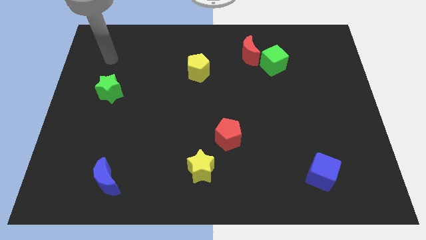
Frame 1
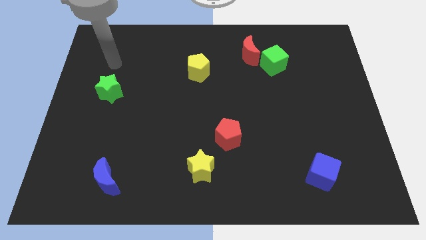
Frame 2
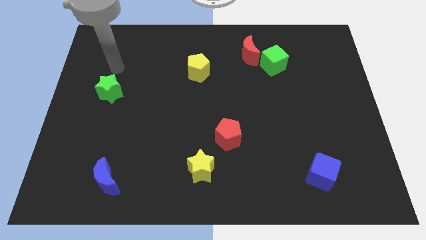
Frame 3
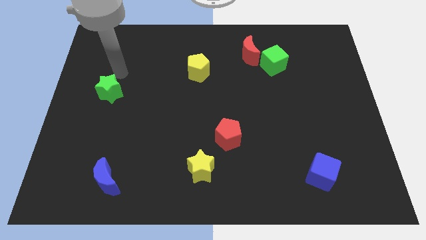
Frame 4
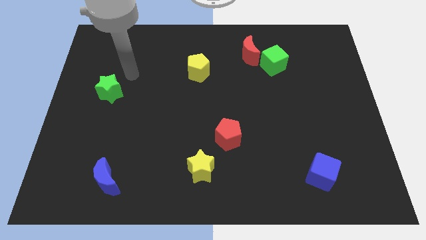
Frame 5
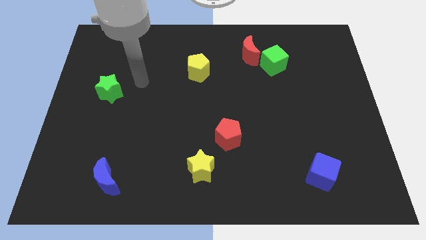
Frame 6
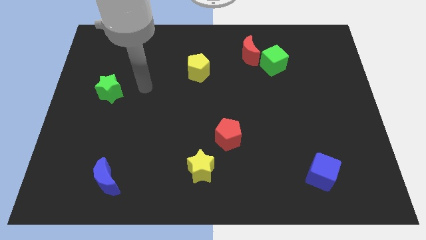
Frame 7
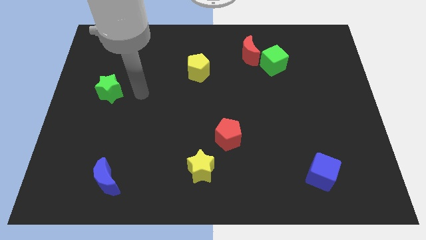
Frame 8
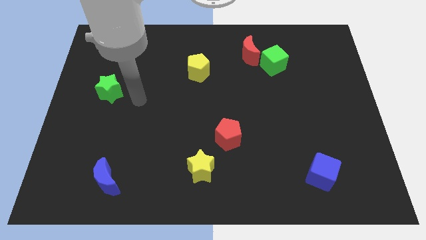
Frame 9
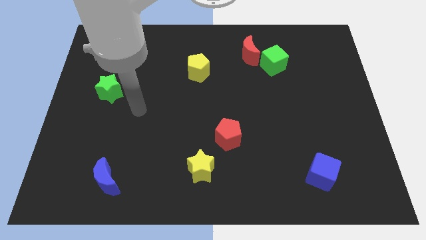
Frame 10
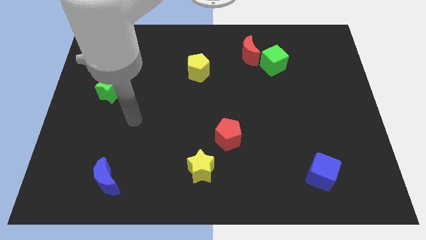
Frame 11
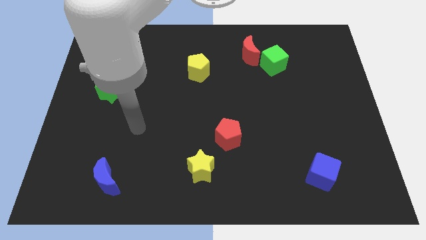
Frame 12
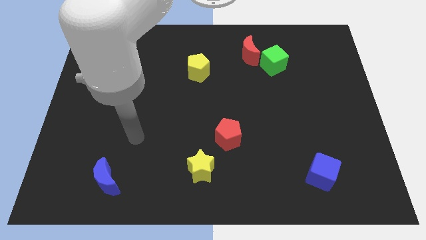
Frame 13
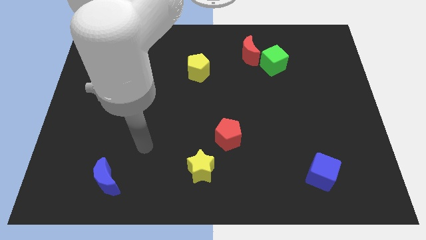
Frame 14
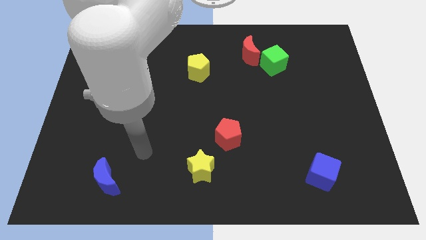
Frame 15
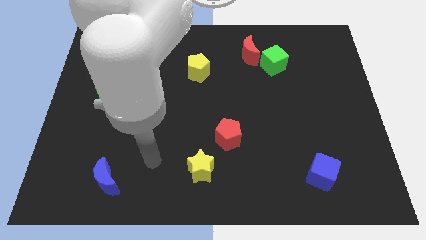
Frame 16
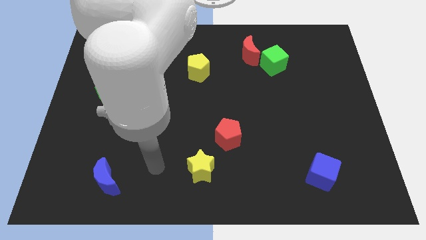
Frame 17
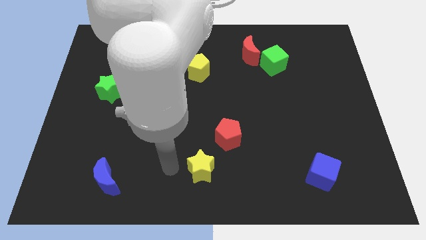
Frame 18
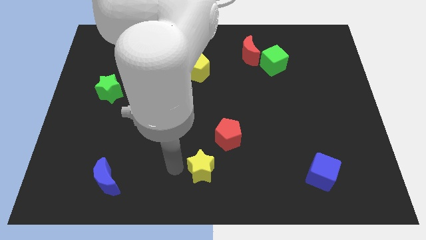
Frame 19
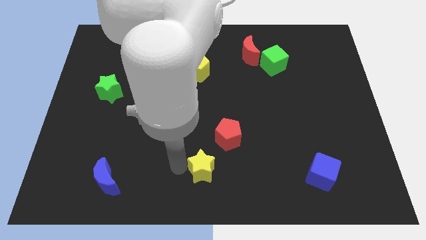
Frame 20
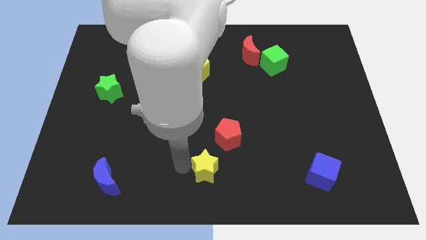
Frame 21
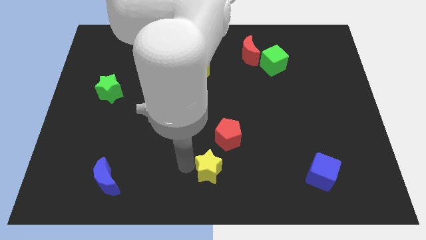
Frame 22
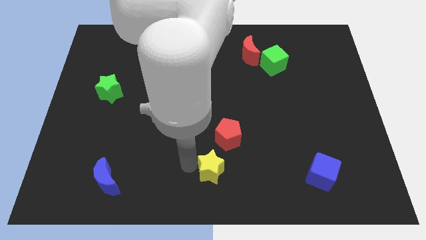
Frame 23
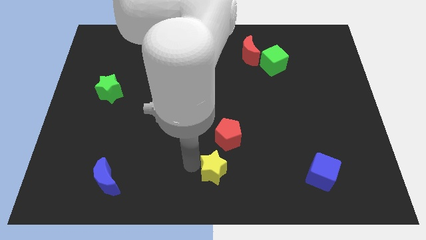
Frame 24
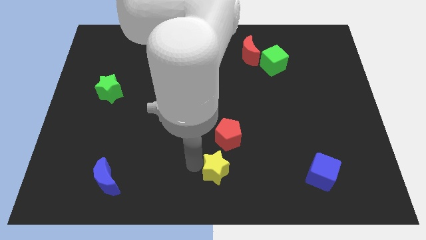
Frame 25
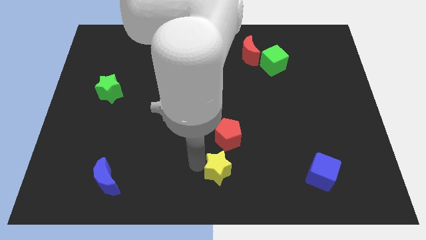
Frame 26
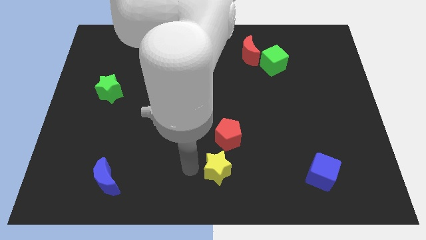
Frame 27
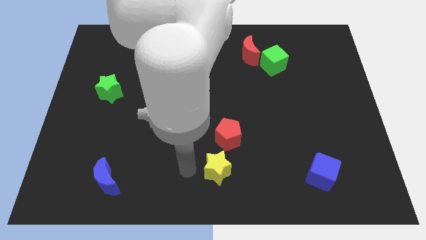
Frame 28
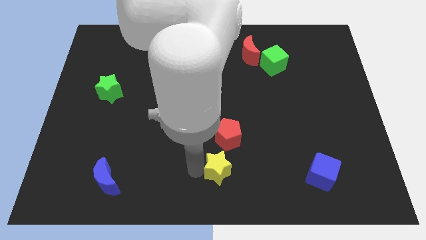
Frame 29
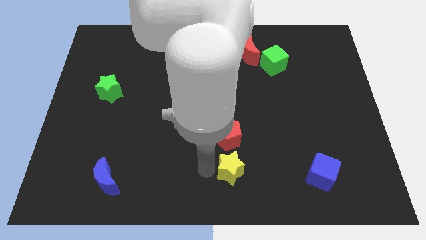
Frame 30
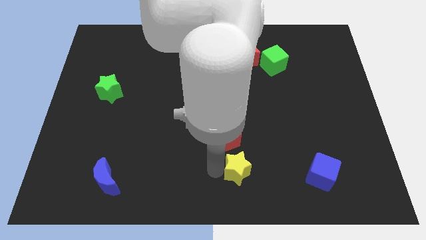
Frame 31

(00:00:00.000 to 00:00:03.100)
push the yellow star somewhat right

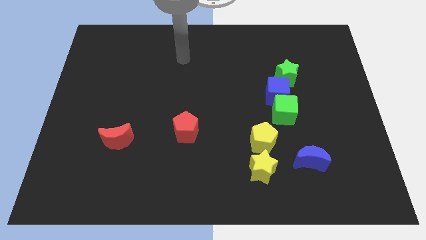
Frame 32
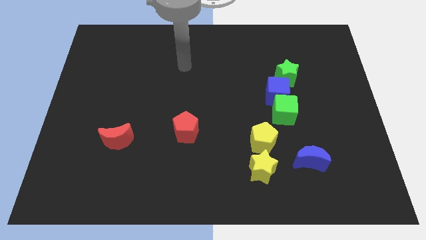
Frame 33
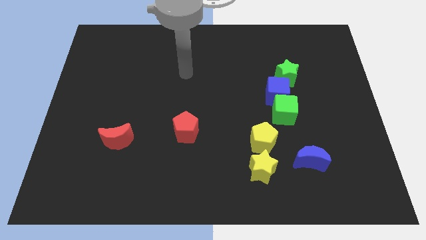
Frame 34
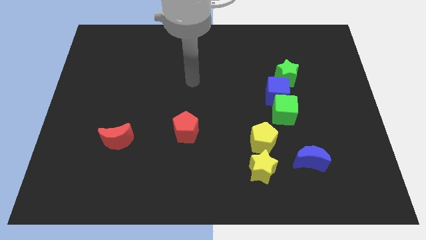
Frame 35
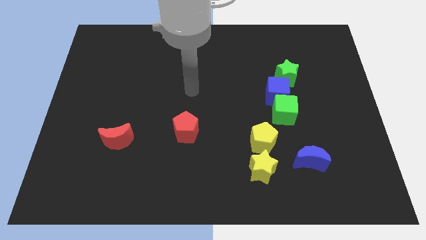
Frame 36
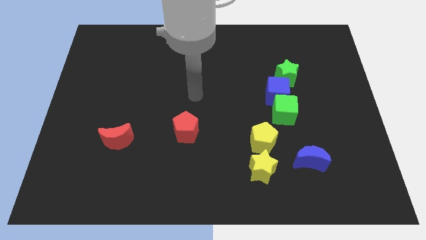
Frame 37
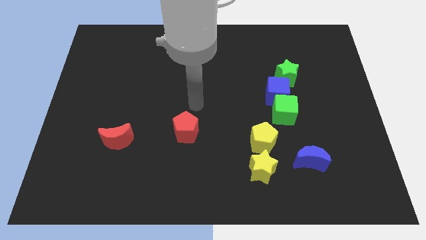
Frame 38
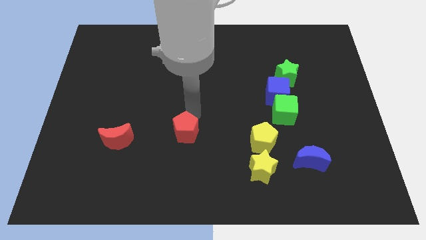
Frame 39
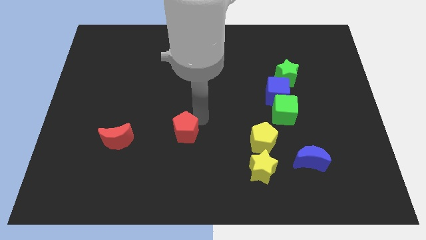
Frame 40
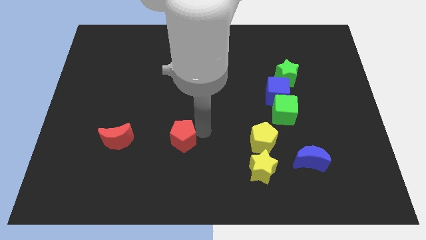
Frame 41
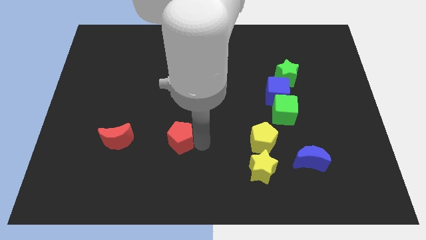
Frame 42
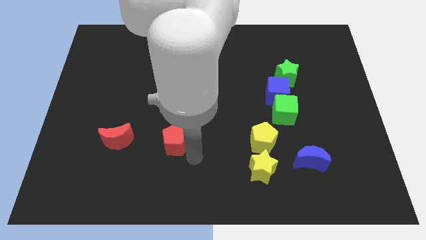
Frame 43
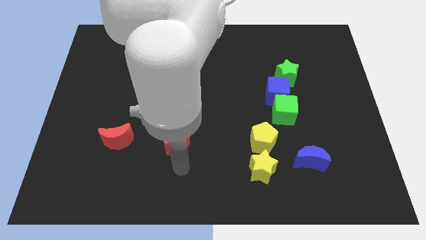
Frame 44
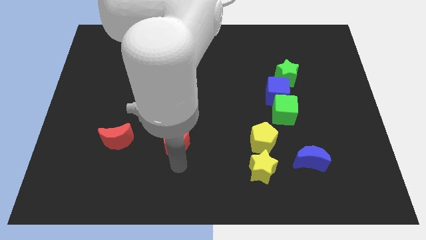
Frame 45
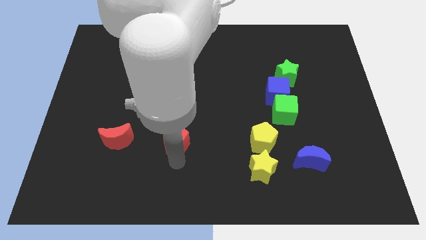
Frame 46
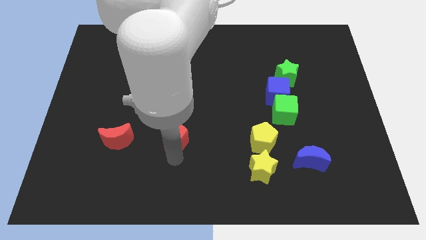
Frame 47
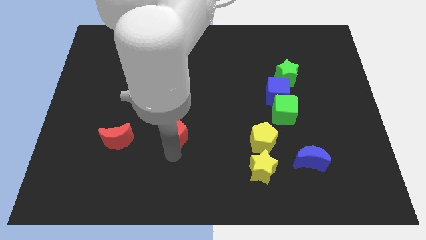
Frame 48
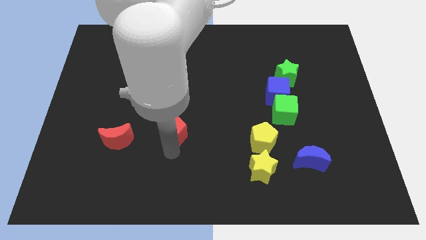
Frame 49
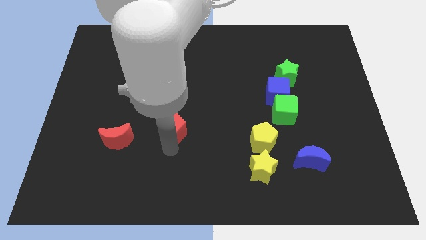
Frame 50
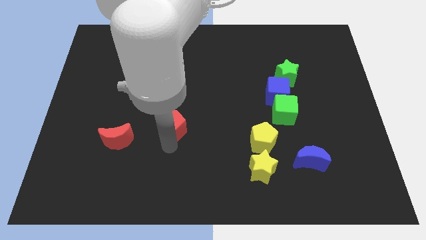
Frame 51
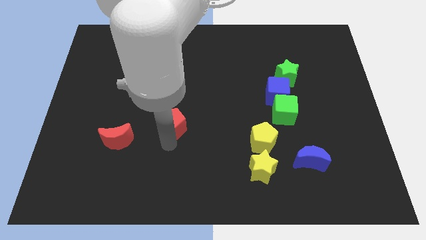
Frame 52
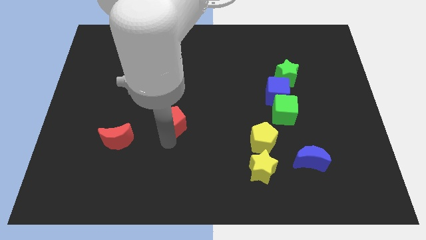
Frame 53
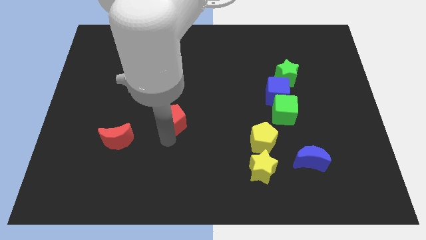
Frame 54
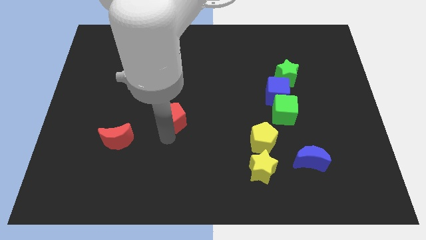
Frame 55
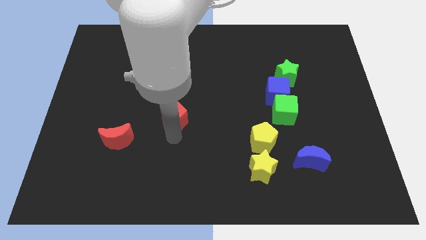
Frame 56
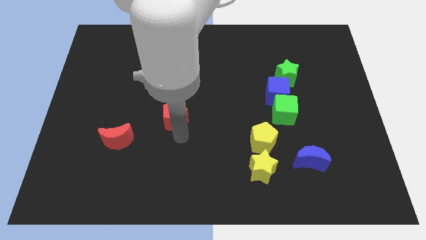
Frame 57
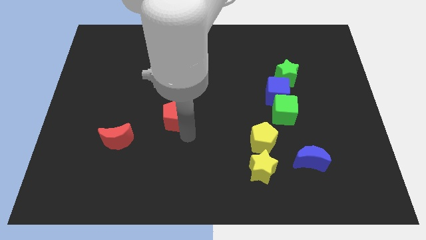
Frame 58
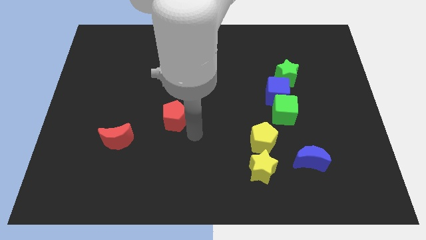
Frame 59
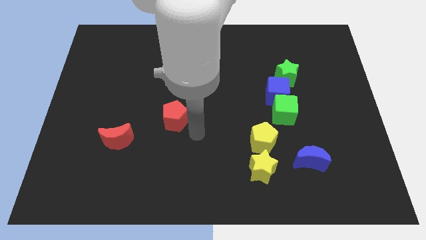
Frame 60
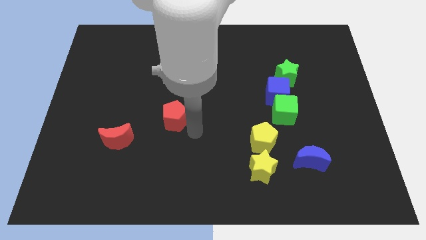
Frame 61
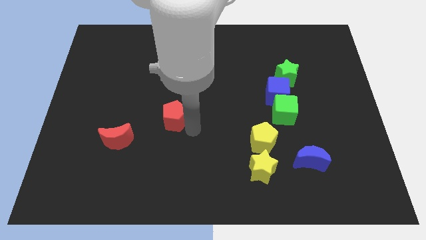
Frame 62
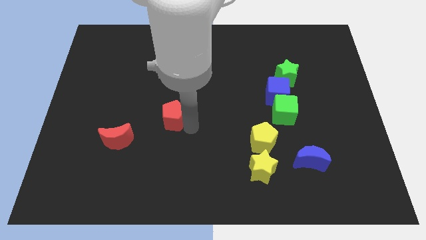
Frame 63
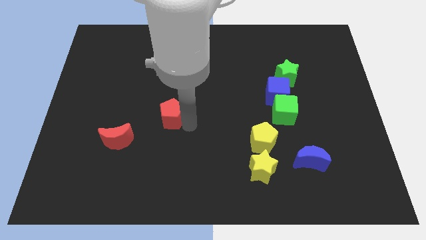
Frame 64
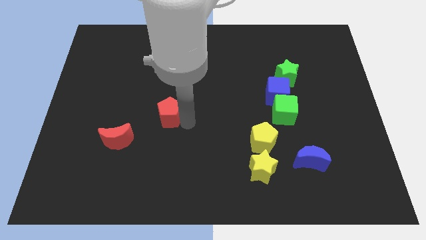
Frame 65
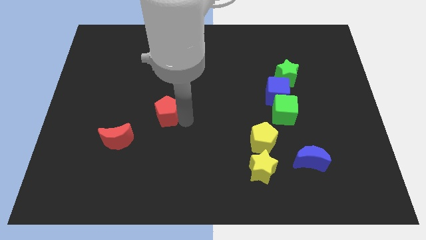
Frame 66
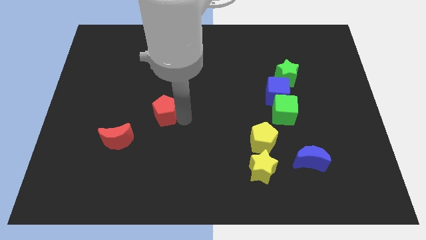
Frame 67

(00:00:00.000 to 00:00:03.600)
slide the red pentagon diagonally upwards and to the left somewhat

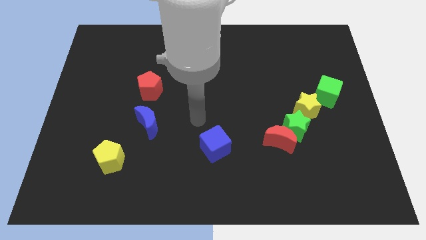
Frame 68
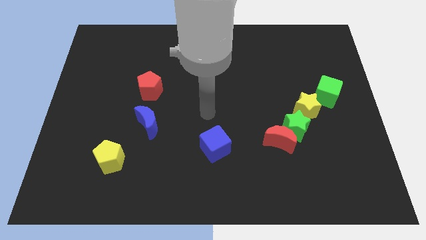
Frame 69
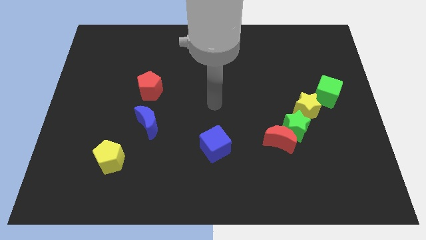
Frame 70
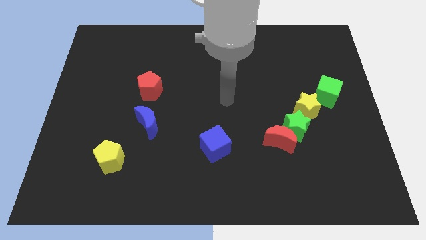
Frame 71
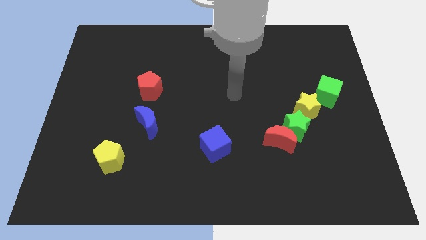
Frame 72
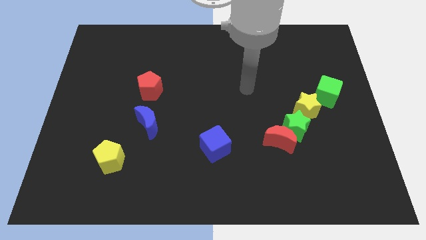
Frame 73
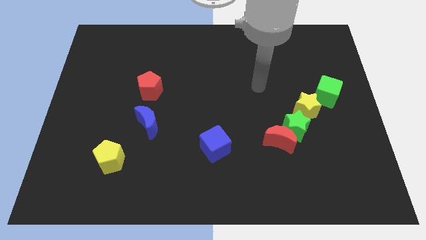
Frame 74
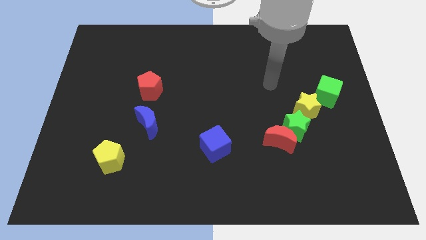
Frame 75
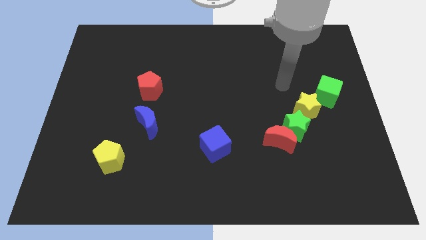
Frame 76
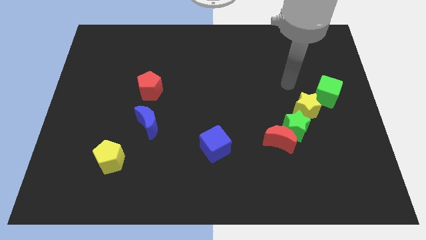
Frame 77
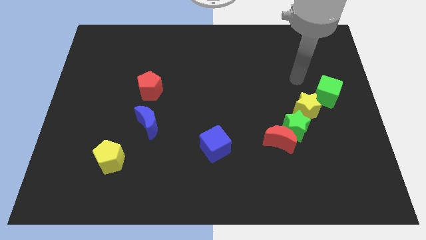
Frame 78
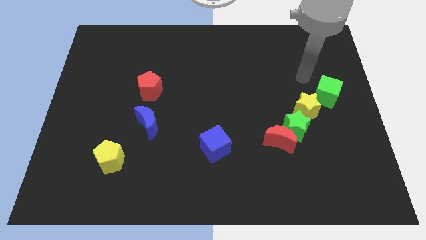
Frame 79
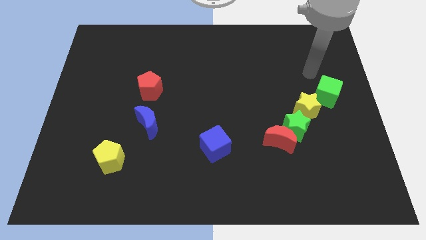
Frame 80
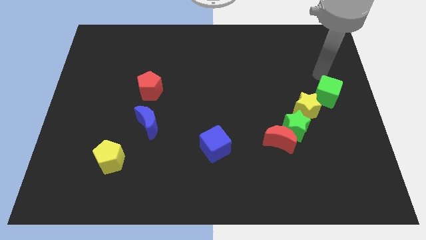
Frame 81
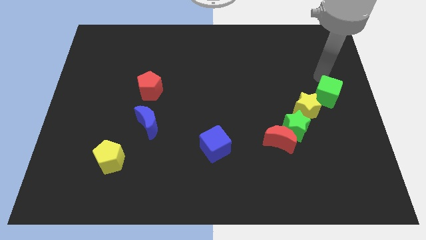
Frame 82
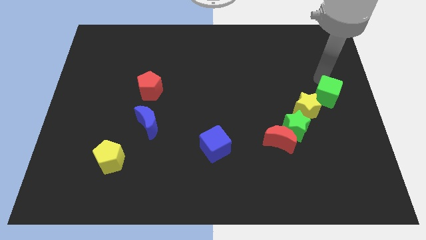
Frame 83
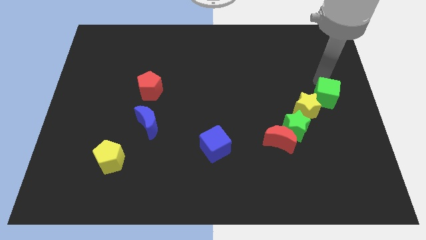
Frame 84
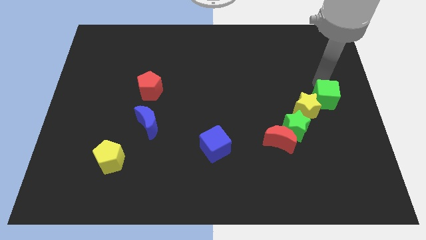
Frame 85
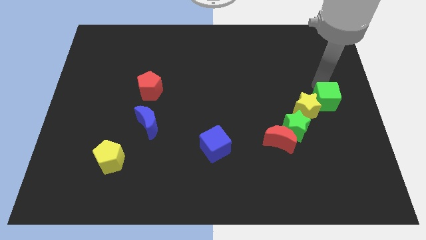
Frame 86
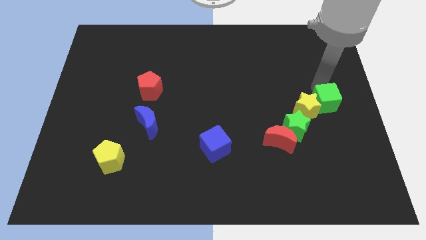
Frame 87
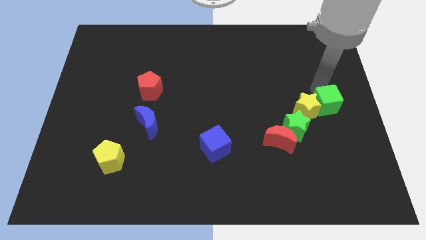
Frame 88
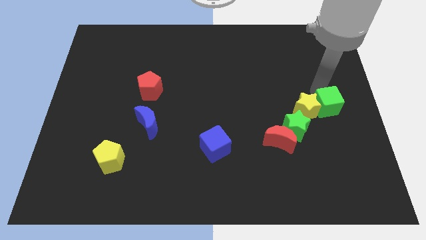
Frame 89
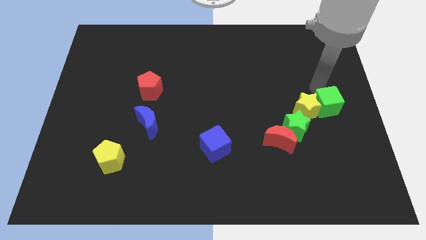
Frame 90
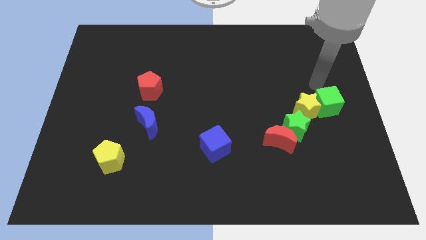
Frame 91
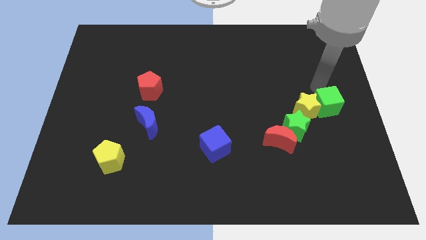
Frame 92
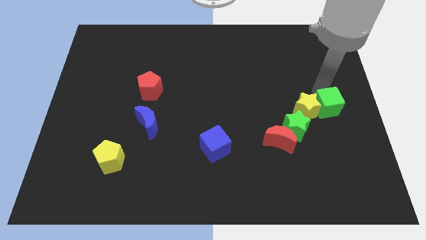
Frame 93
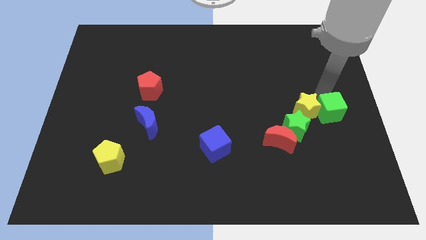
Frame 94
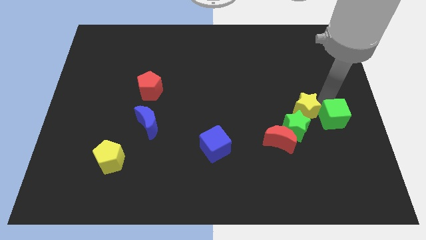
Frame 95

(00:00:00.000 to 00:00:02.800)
slightly push the green cube down
